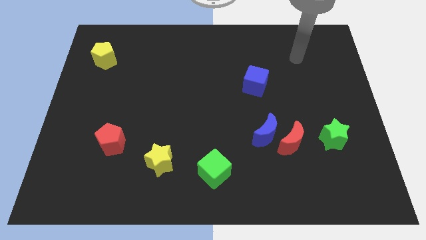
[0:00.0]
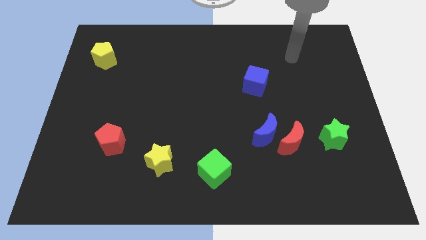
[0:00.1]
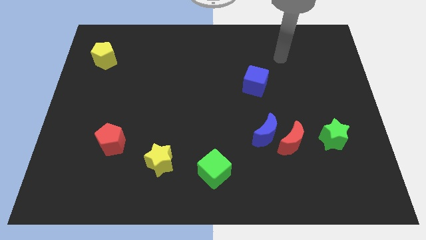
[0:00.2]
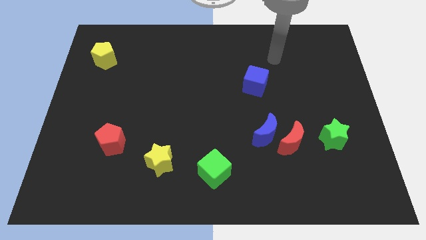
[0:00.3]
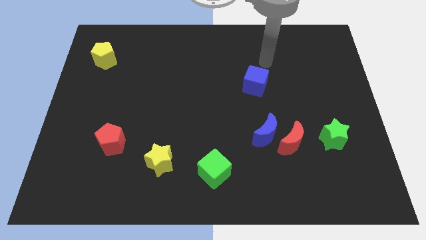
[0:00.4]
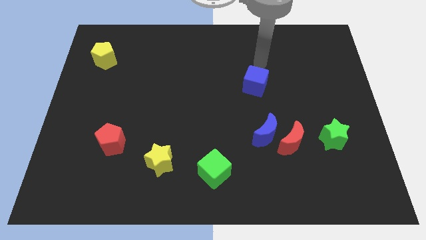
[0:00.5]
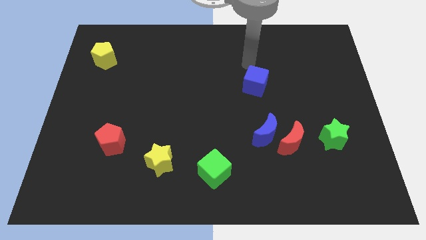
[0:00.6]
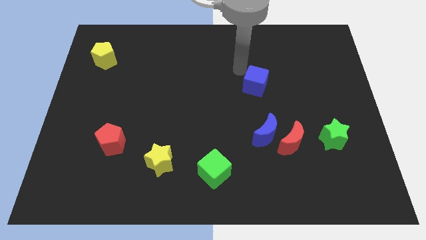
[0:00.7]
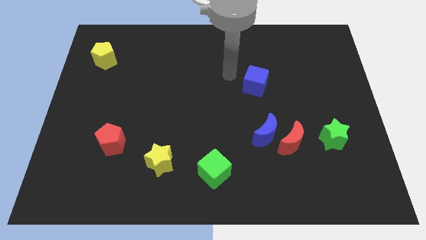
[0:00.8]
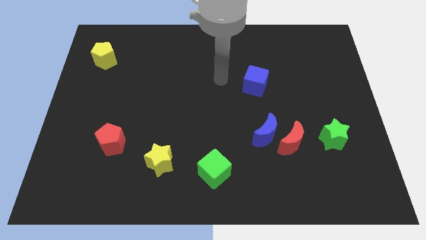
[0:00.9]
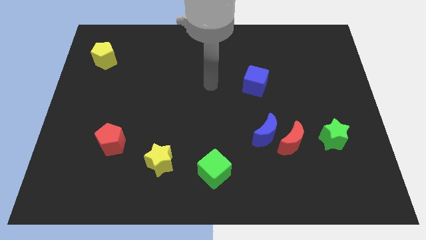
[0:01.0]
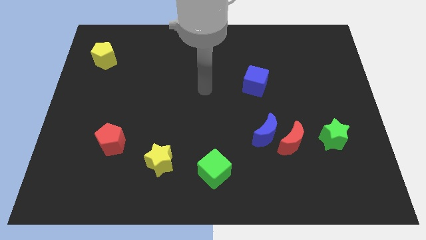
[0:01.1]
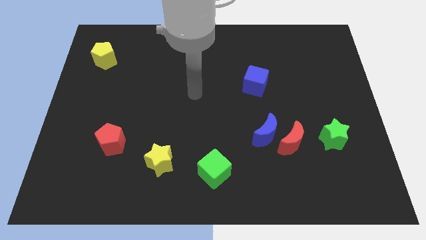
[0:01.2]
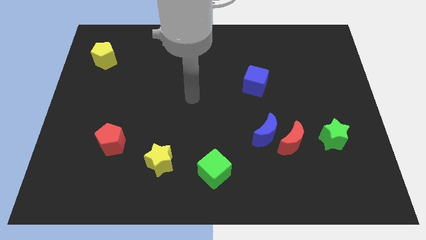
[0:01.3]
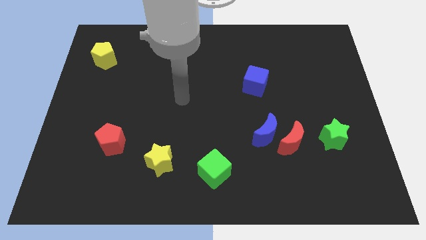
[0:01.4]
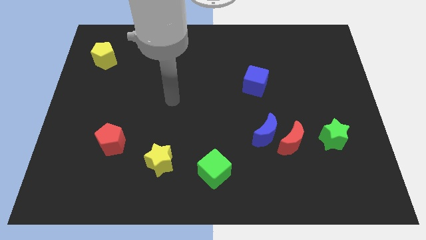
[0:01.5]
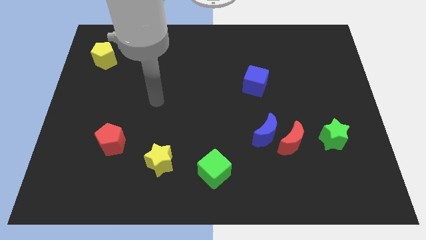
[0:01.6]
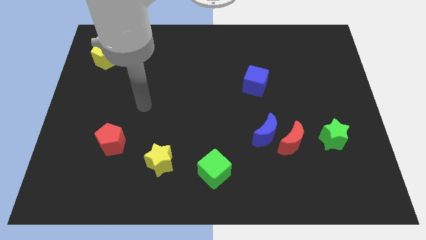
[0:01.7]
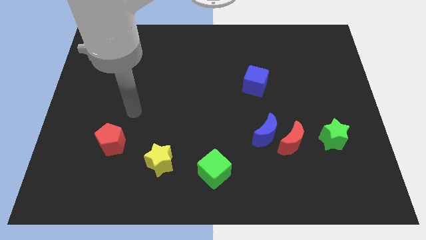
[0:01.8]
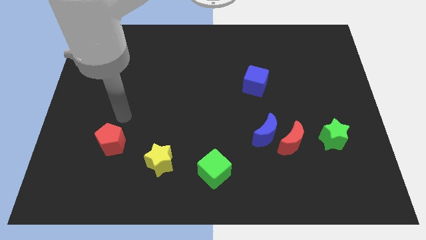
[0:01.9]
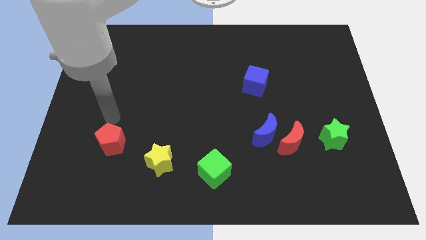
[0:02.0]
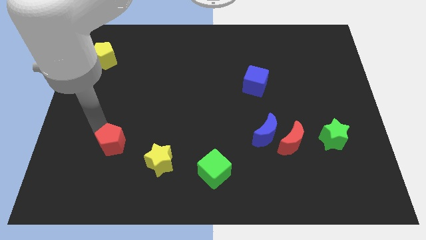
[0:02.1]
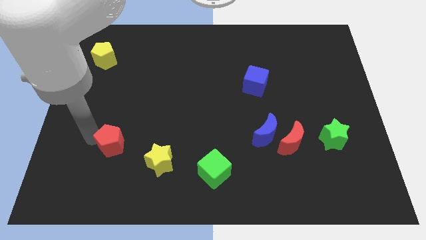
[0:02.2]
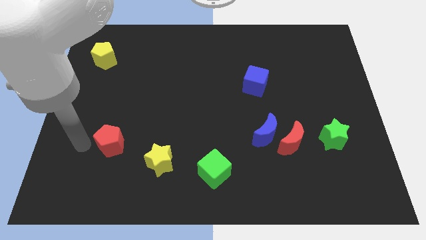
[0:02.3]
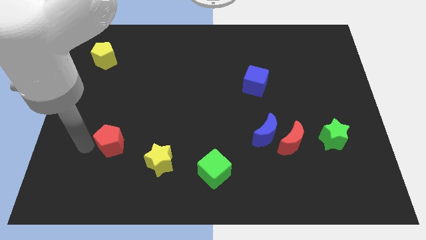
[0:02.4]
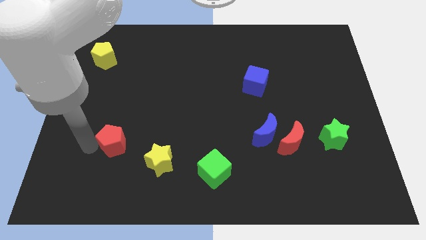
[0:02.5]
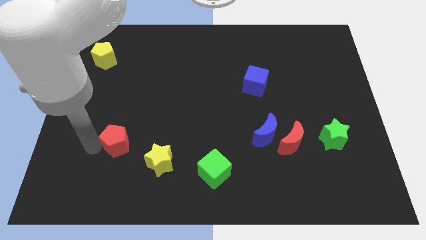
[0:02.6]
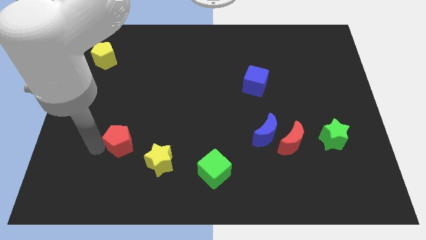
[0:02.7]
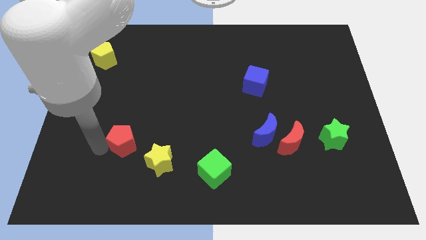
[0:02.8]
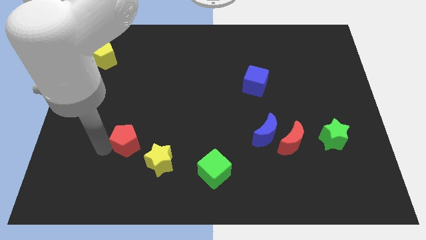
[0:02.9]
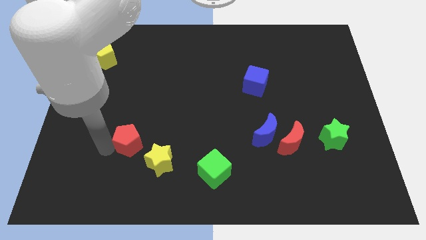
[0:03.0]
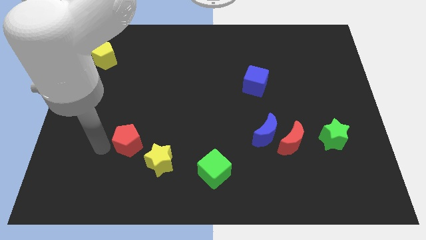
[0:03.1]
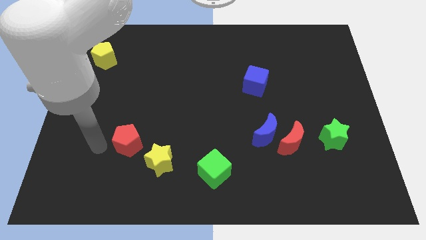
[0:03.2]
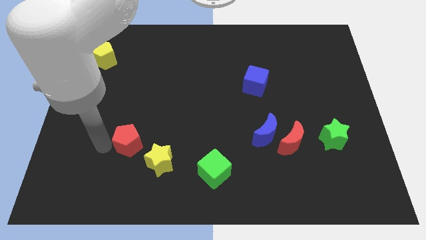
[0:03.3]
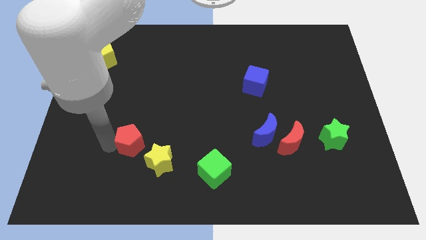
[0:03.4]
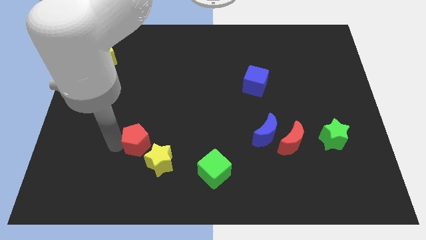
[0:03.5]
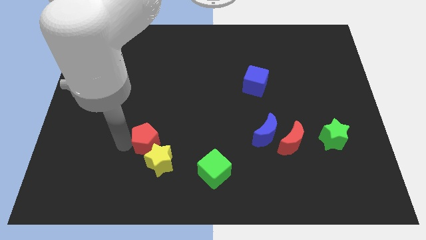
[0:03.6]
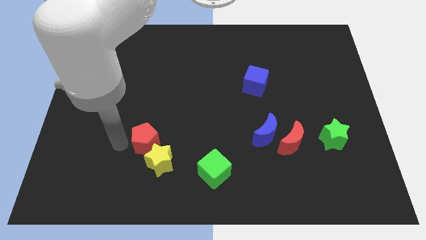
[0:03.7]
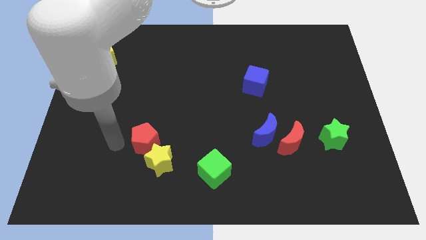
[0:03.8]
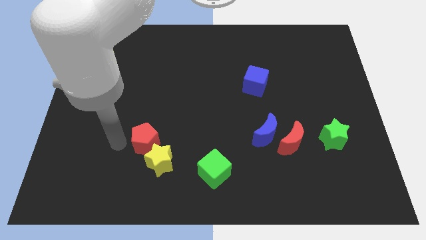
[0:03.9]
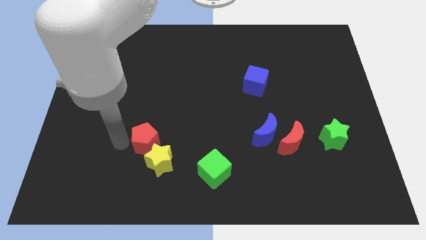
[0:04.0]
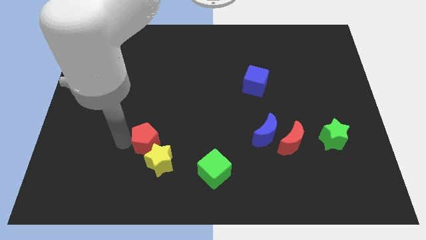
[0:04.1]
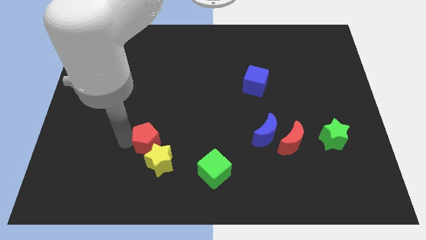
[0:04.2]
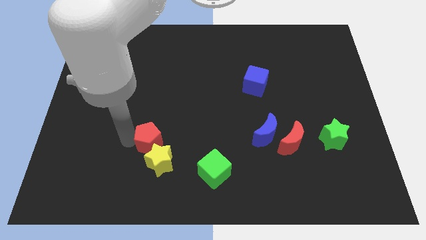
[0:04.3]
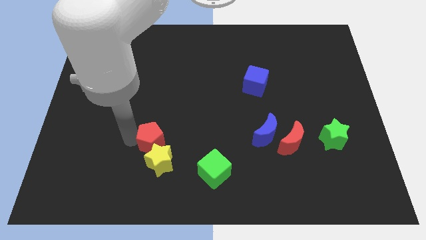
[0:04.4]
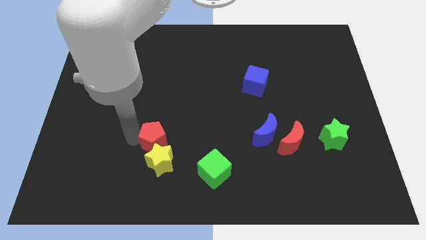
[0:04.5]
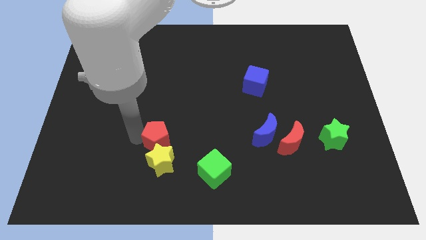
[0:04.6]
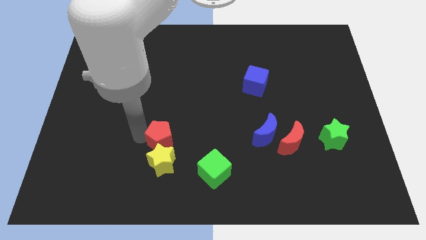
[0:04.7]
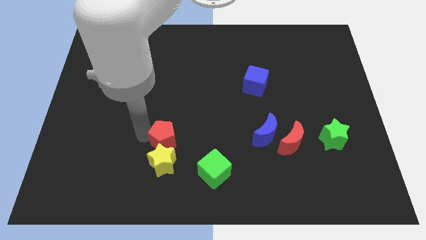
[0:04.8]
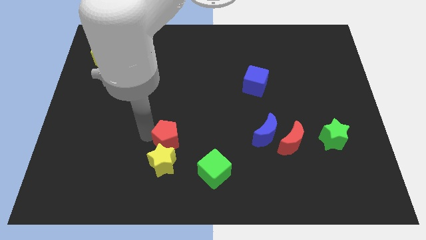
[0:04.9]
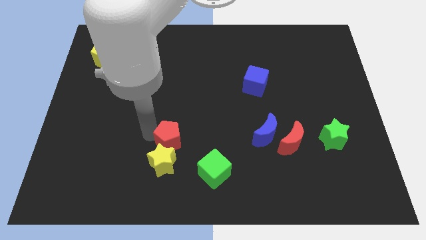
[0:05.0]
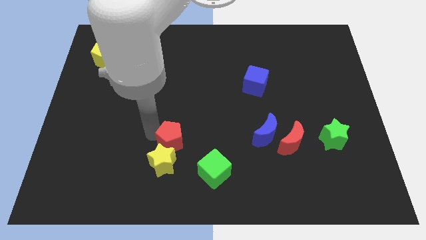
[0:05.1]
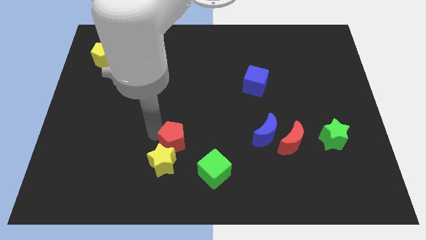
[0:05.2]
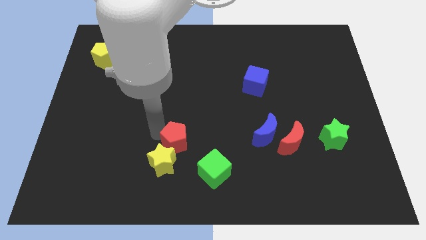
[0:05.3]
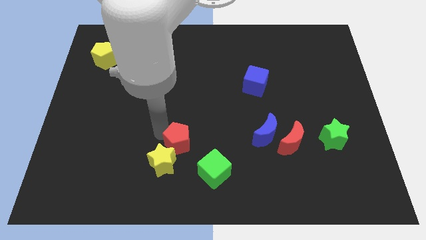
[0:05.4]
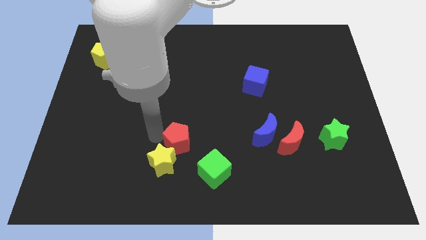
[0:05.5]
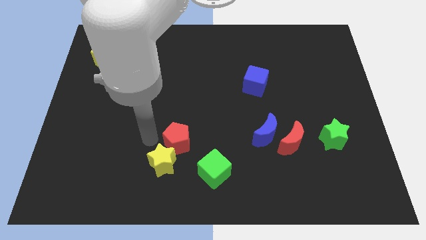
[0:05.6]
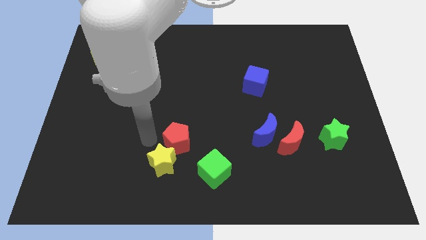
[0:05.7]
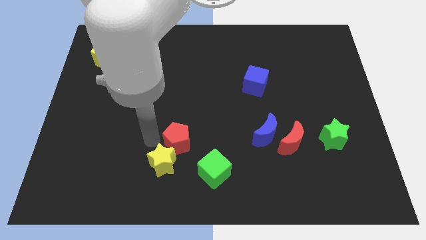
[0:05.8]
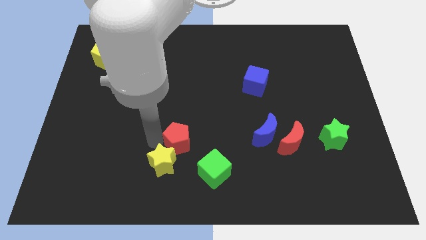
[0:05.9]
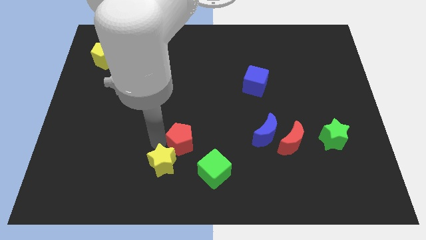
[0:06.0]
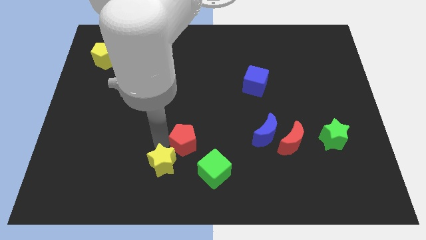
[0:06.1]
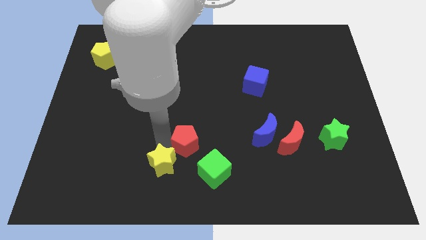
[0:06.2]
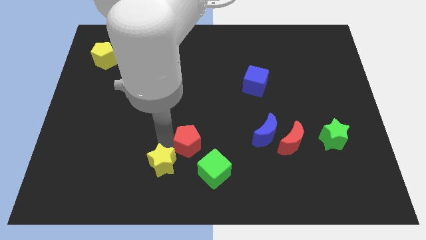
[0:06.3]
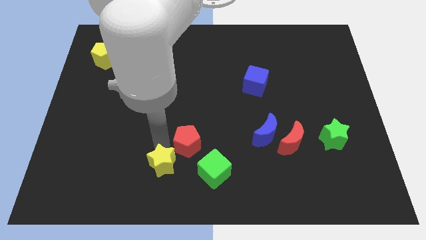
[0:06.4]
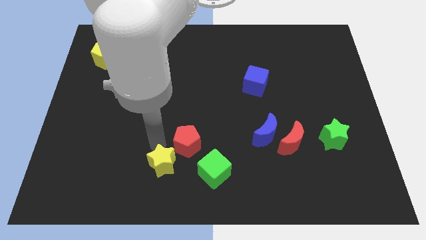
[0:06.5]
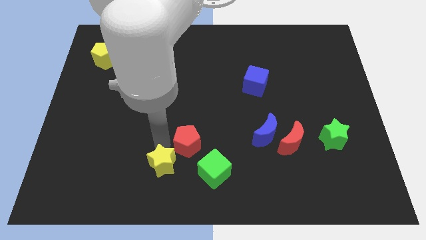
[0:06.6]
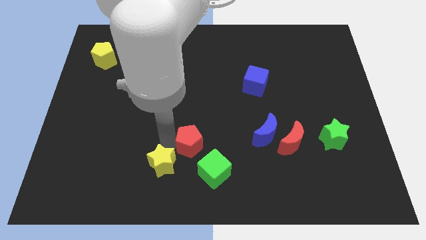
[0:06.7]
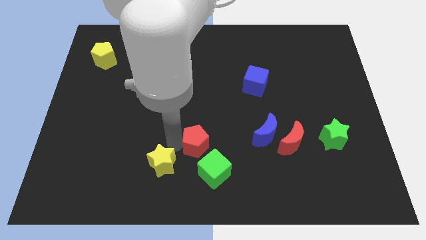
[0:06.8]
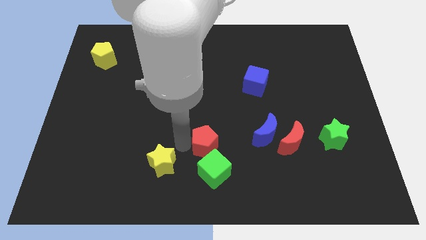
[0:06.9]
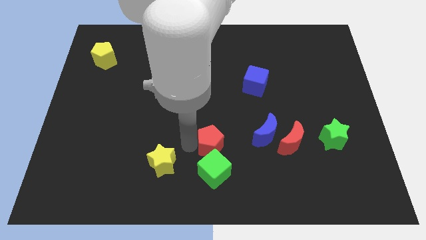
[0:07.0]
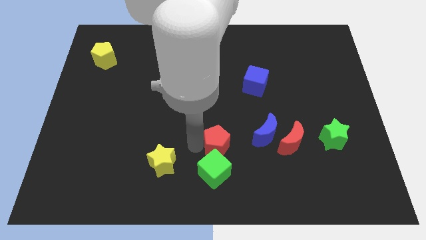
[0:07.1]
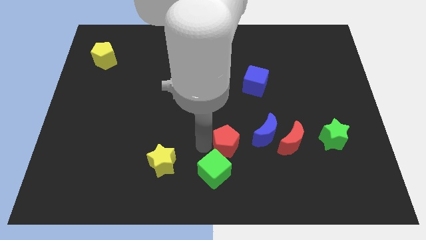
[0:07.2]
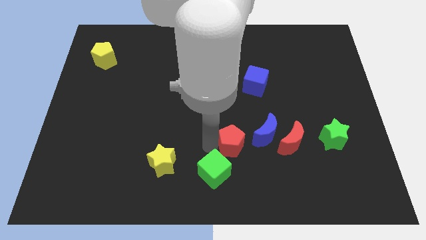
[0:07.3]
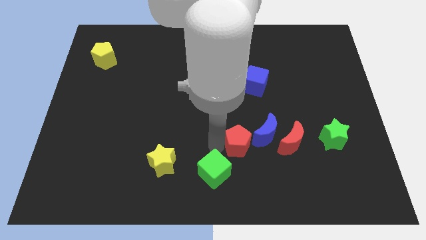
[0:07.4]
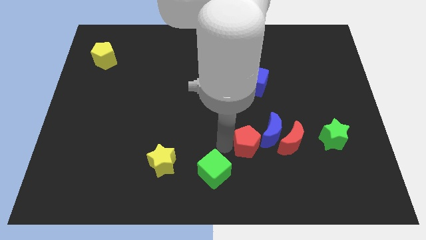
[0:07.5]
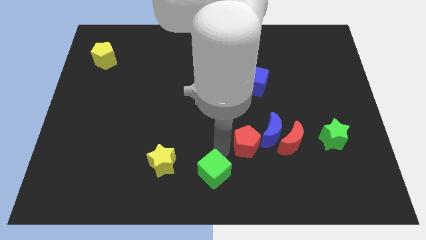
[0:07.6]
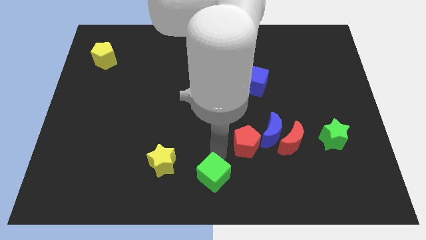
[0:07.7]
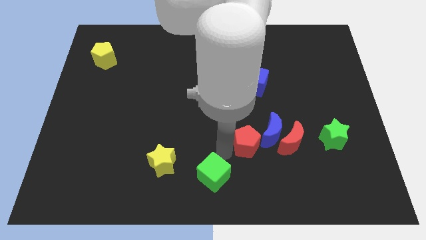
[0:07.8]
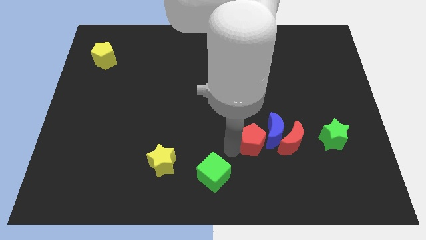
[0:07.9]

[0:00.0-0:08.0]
slide the red pentagon close to the blue moon
